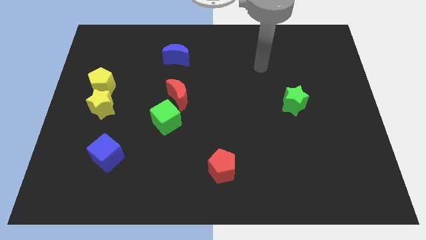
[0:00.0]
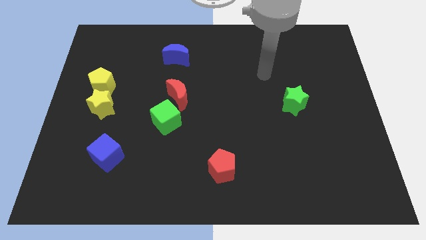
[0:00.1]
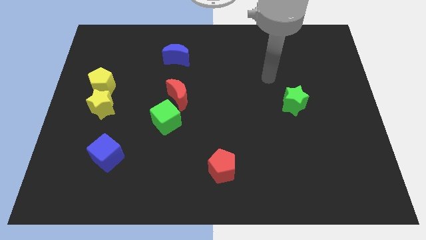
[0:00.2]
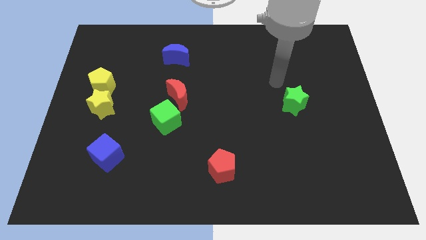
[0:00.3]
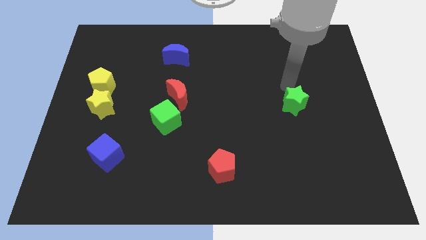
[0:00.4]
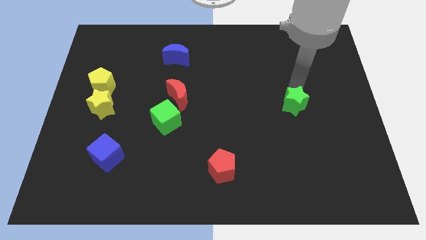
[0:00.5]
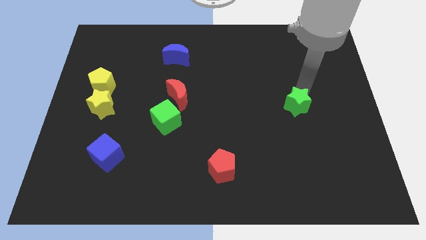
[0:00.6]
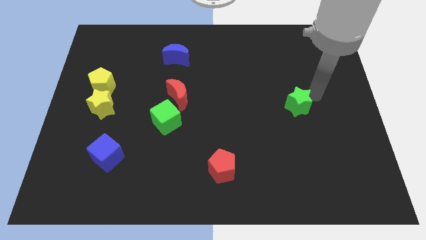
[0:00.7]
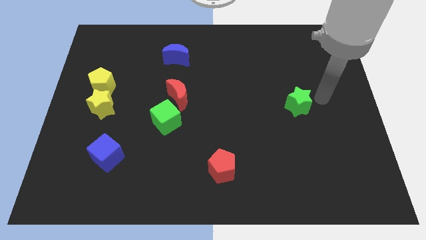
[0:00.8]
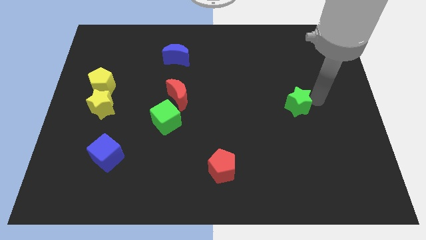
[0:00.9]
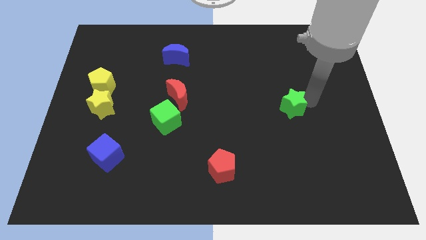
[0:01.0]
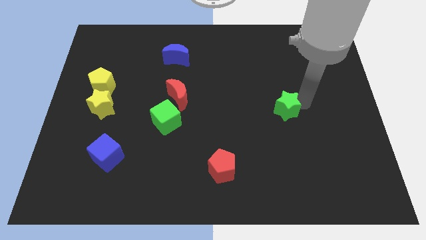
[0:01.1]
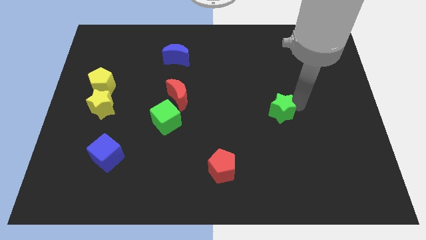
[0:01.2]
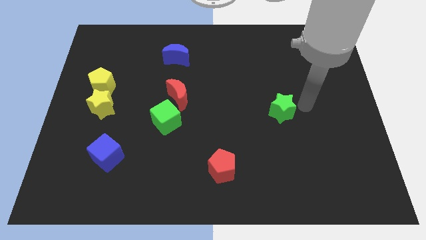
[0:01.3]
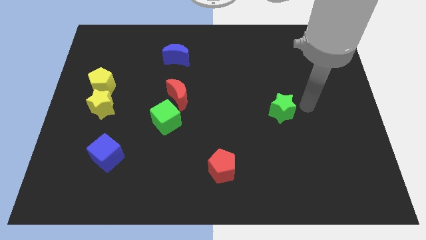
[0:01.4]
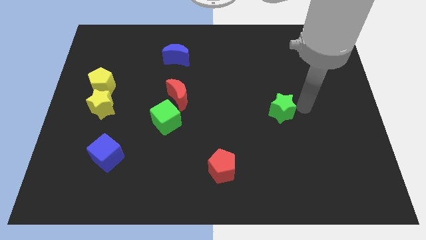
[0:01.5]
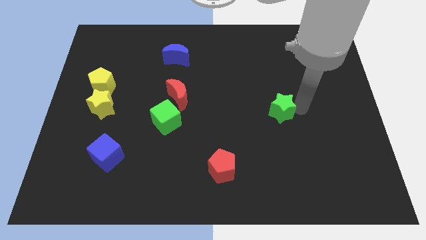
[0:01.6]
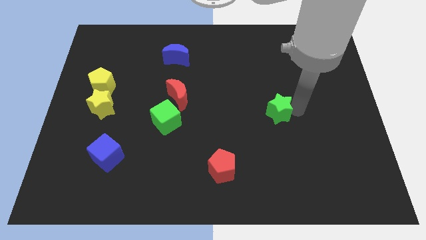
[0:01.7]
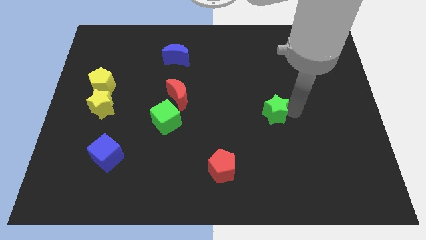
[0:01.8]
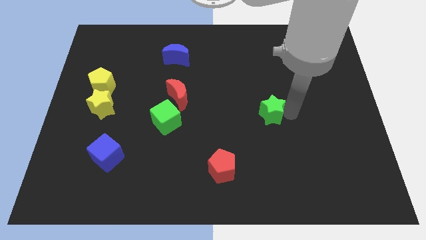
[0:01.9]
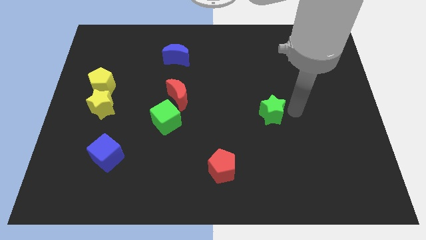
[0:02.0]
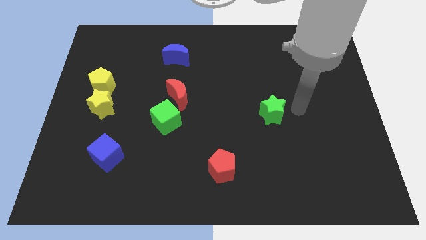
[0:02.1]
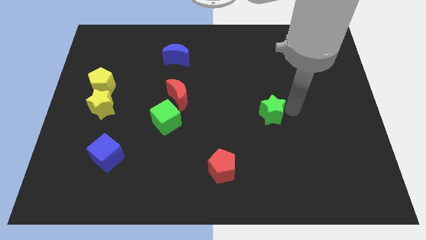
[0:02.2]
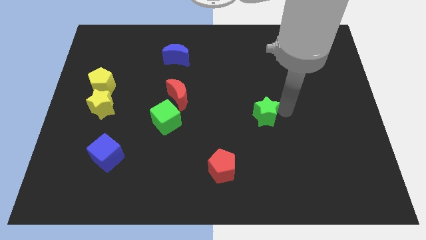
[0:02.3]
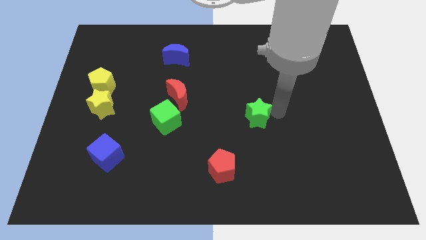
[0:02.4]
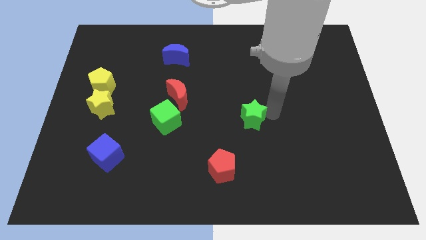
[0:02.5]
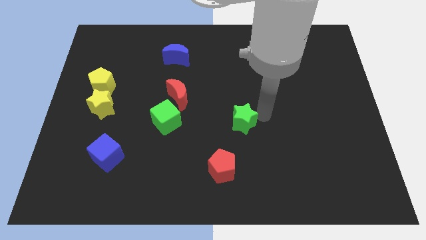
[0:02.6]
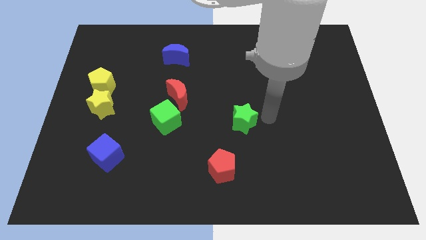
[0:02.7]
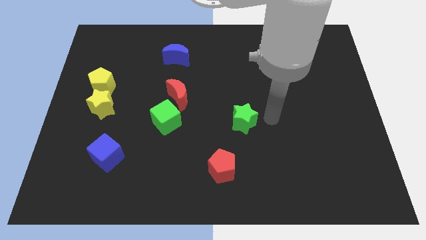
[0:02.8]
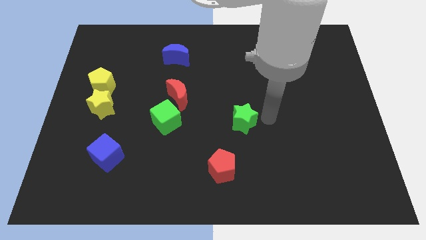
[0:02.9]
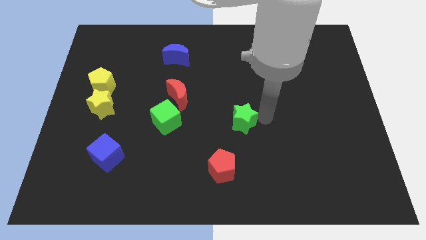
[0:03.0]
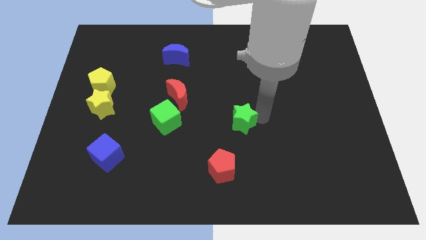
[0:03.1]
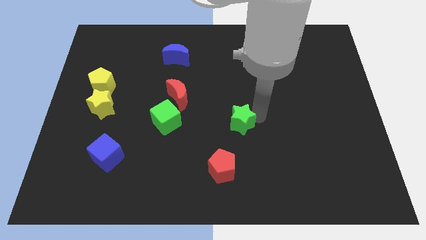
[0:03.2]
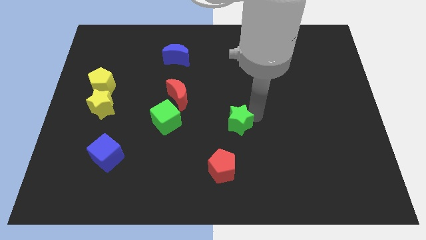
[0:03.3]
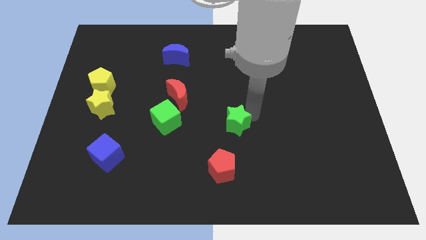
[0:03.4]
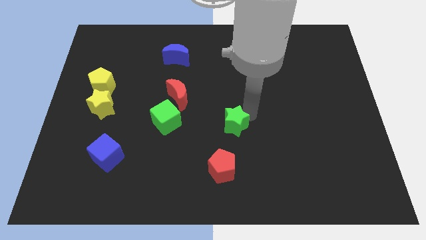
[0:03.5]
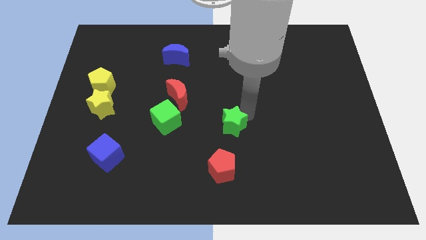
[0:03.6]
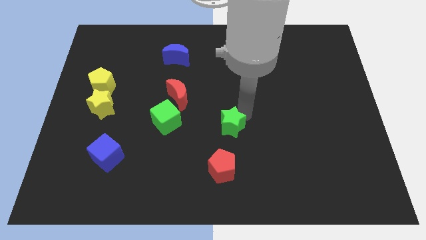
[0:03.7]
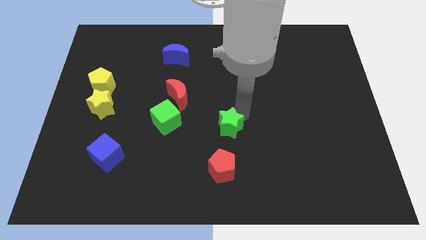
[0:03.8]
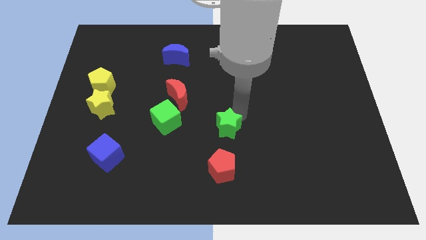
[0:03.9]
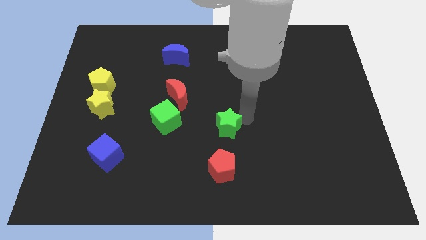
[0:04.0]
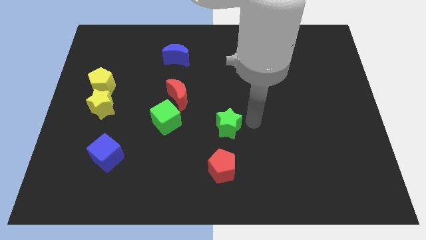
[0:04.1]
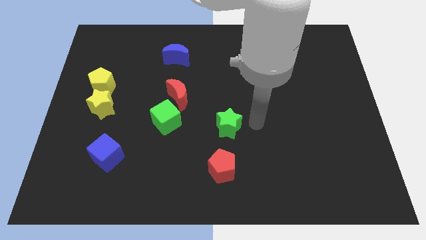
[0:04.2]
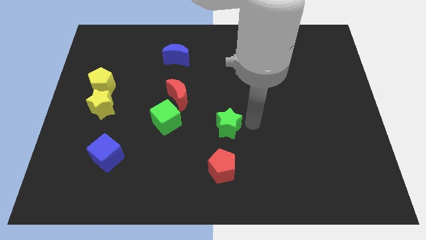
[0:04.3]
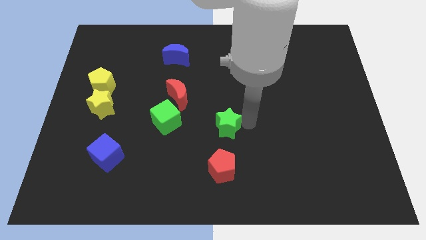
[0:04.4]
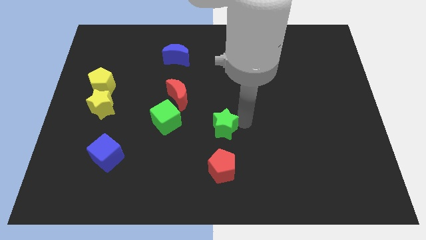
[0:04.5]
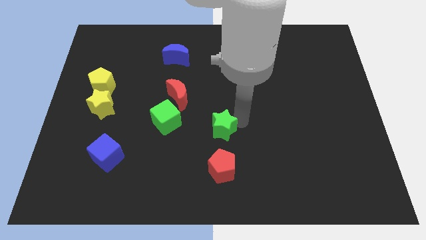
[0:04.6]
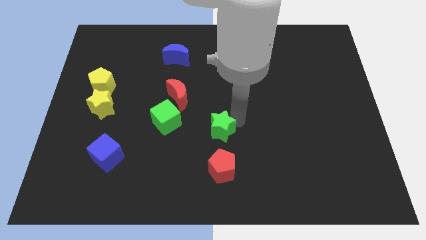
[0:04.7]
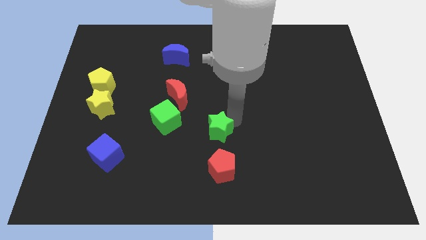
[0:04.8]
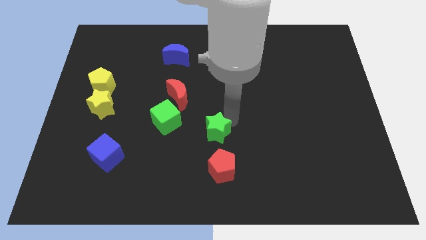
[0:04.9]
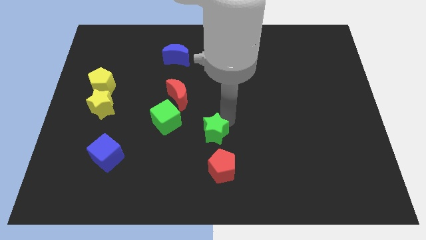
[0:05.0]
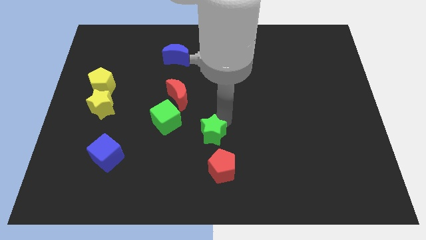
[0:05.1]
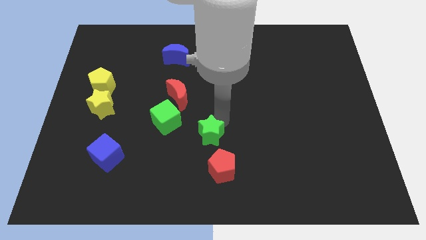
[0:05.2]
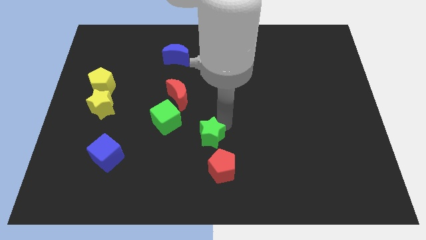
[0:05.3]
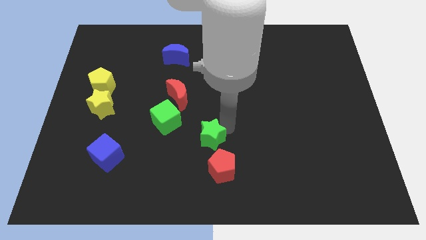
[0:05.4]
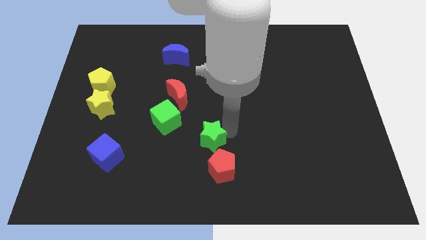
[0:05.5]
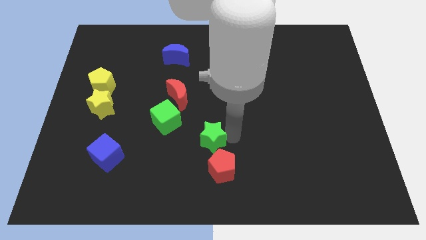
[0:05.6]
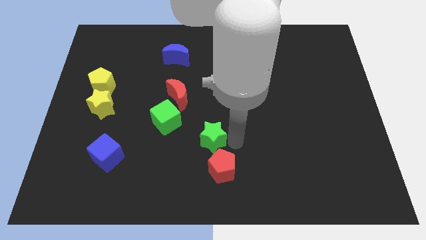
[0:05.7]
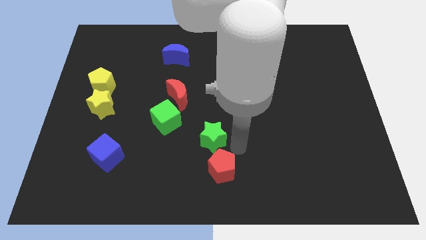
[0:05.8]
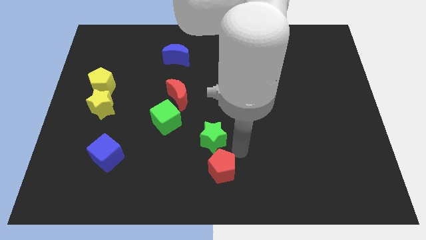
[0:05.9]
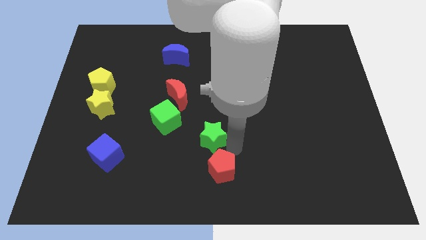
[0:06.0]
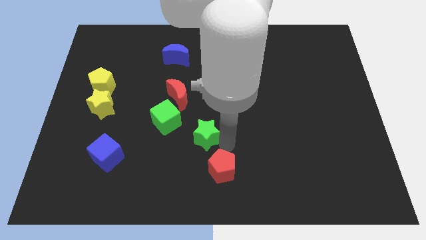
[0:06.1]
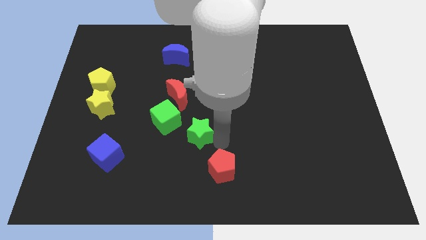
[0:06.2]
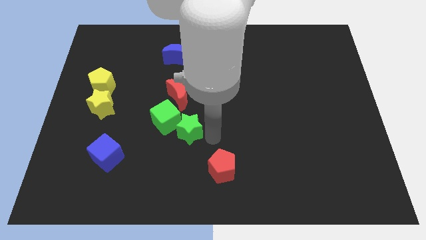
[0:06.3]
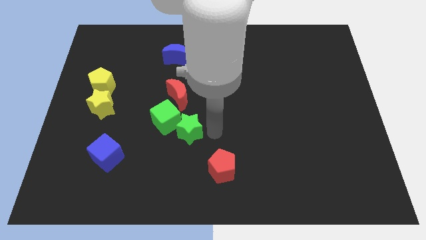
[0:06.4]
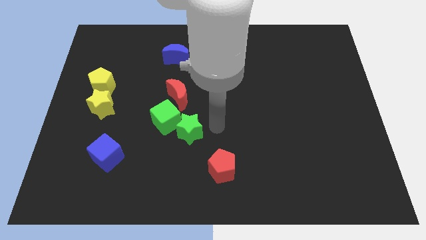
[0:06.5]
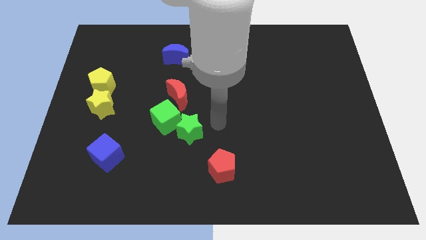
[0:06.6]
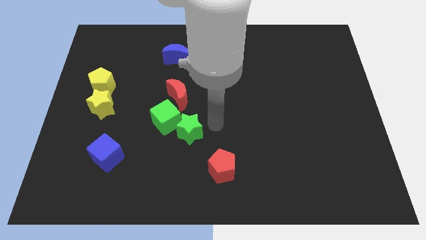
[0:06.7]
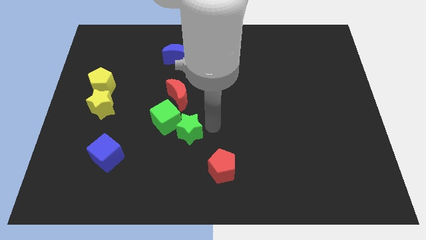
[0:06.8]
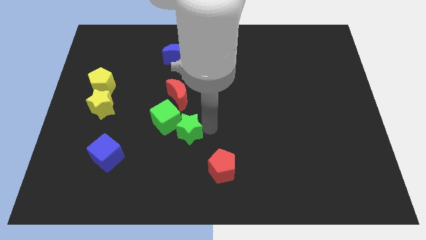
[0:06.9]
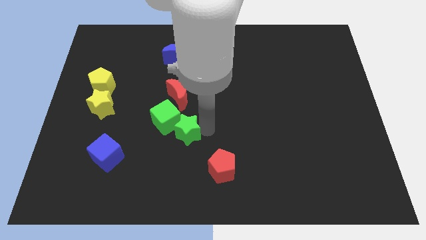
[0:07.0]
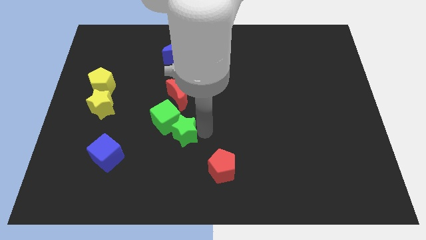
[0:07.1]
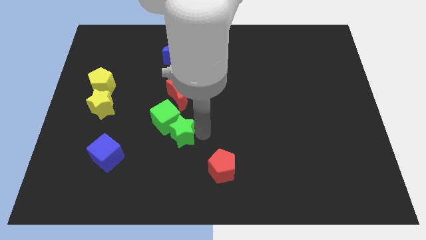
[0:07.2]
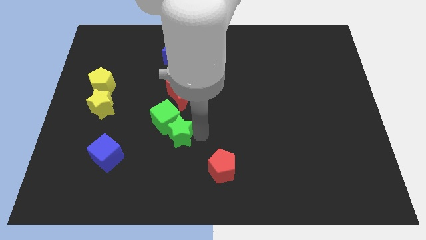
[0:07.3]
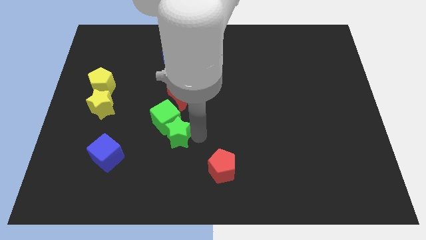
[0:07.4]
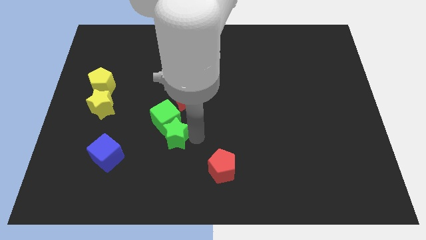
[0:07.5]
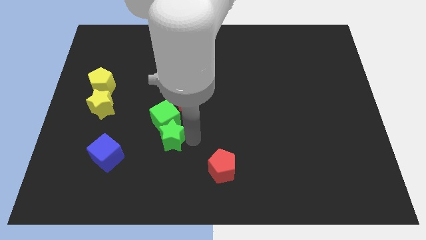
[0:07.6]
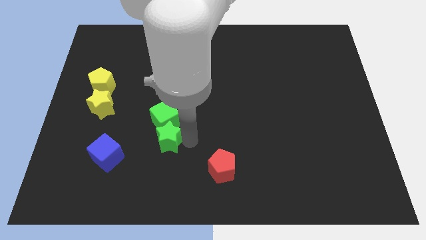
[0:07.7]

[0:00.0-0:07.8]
slide the green star diagonally down and to the left of the green cube
